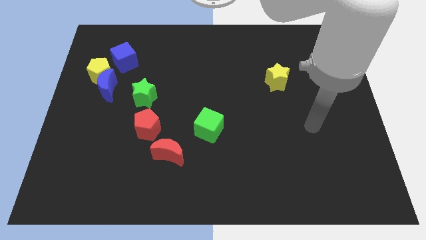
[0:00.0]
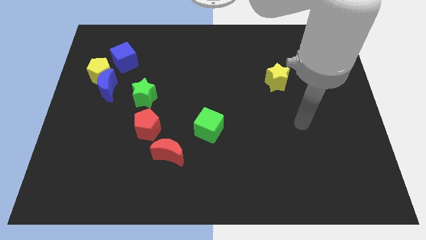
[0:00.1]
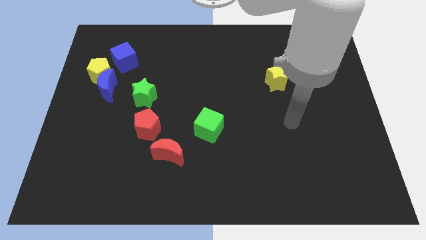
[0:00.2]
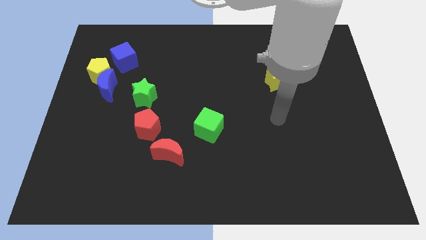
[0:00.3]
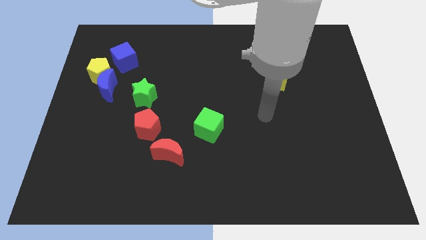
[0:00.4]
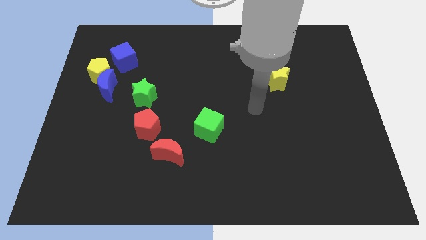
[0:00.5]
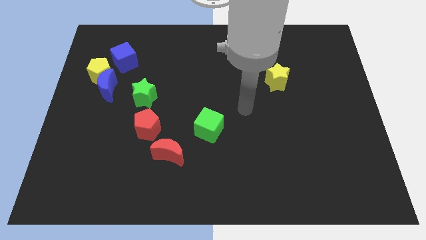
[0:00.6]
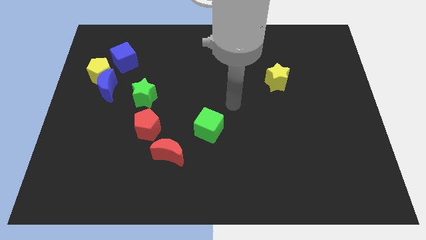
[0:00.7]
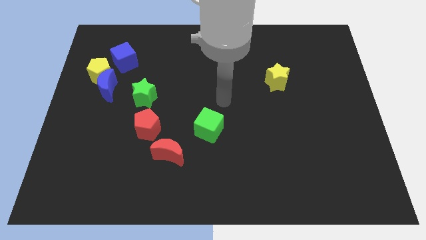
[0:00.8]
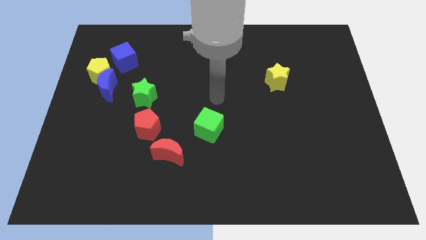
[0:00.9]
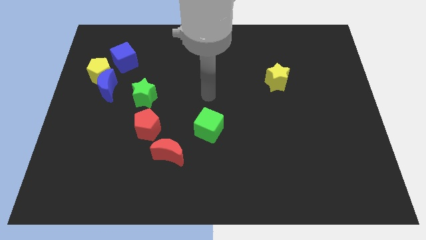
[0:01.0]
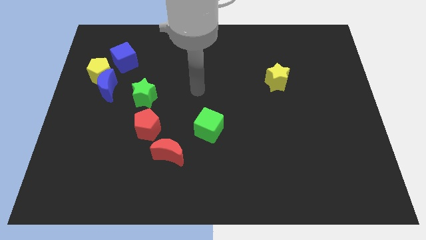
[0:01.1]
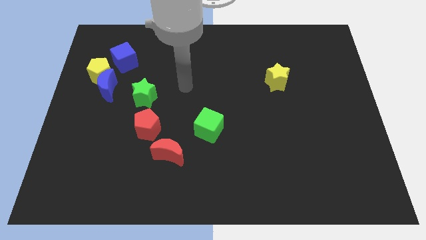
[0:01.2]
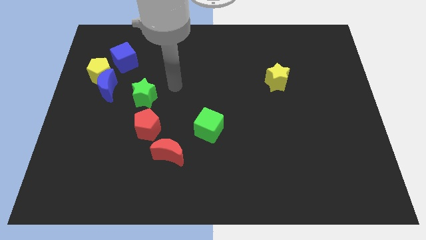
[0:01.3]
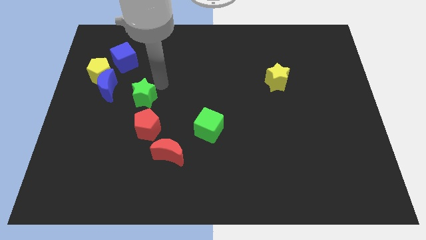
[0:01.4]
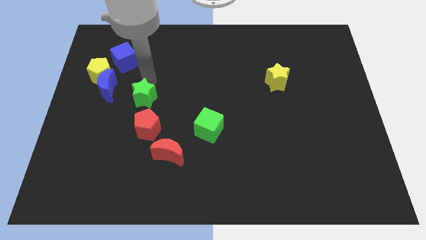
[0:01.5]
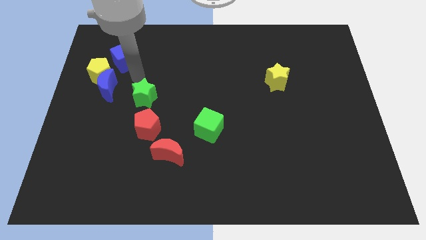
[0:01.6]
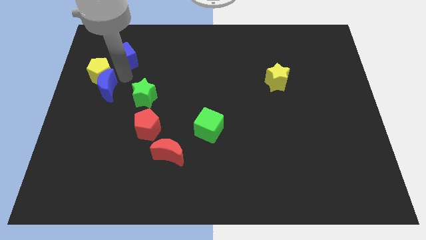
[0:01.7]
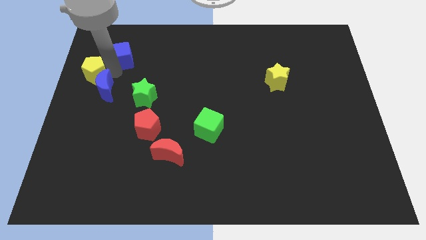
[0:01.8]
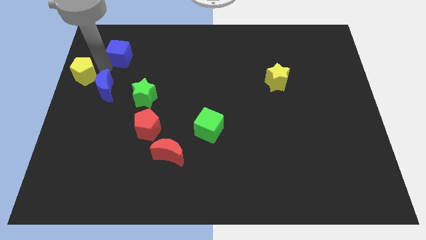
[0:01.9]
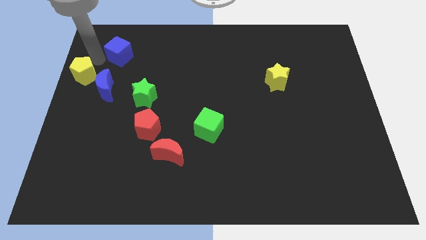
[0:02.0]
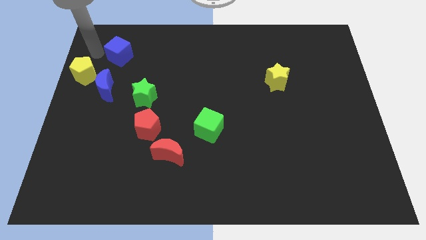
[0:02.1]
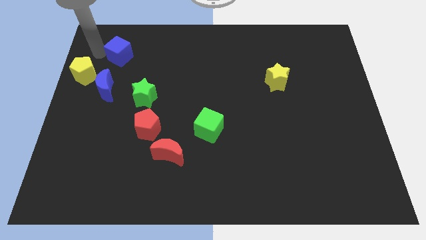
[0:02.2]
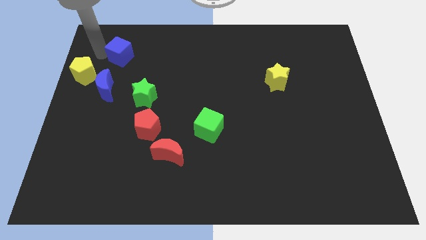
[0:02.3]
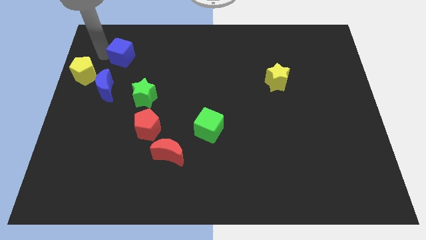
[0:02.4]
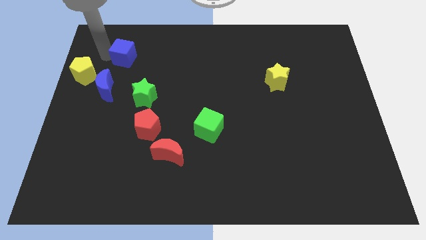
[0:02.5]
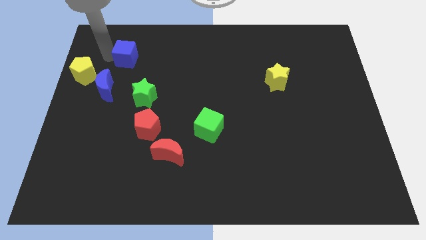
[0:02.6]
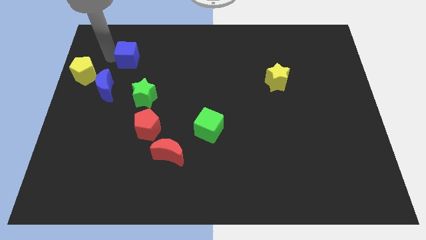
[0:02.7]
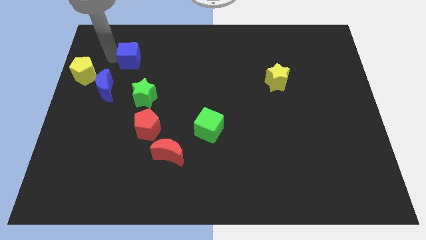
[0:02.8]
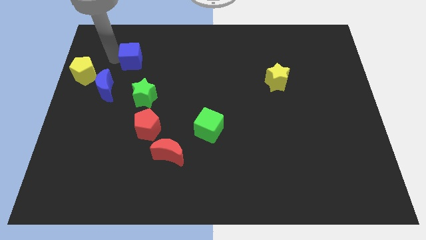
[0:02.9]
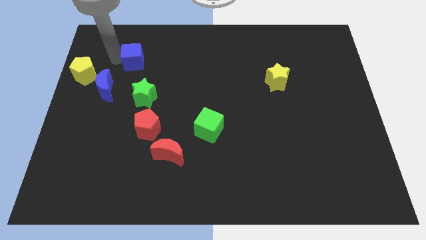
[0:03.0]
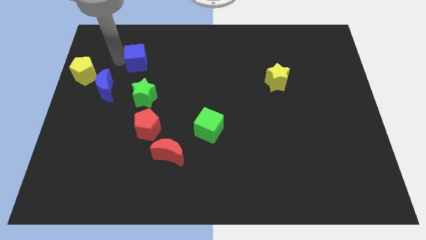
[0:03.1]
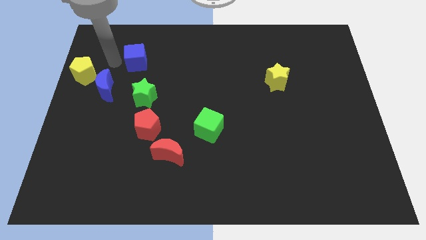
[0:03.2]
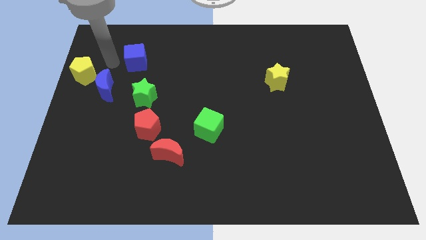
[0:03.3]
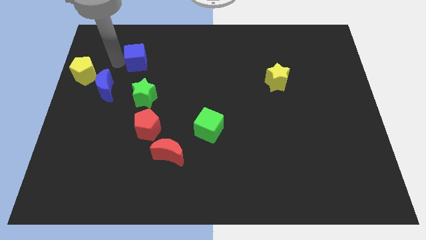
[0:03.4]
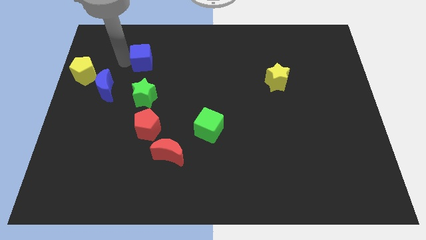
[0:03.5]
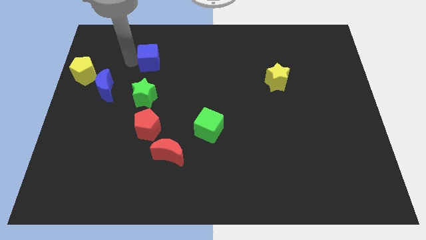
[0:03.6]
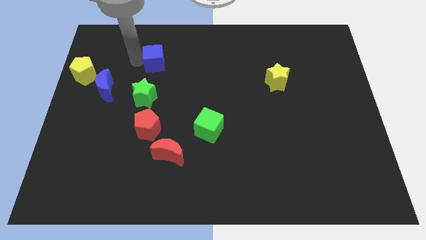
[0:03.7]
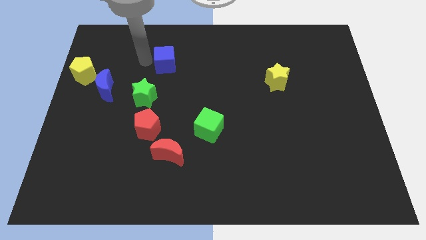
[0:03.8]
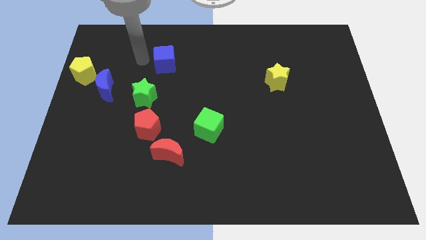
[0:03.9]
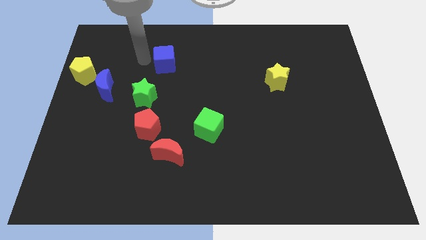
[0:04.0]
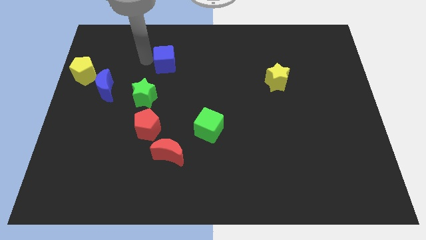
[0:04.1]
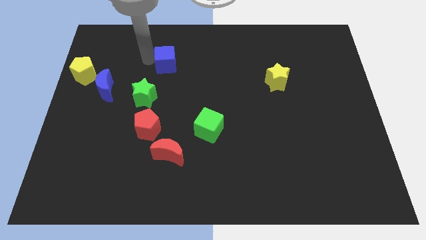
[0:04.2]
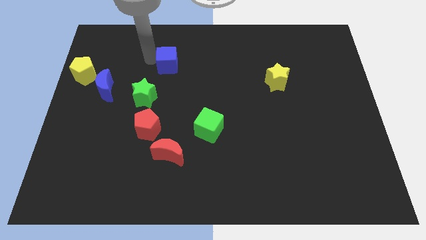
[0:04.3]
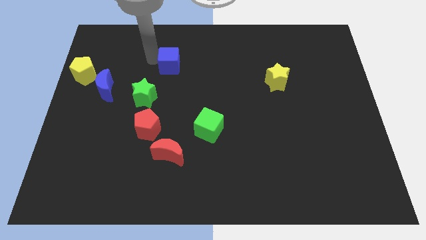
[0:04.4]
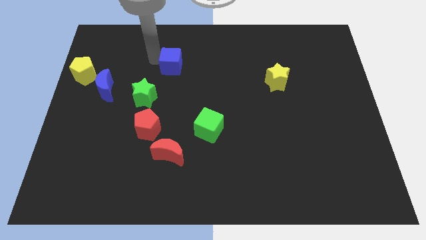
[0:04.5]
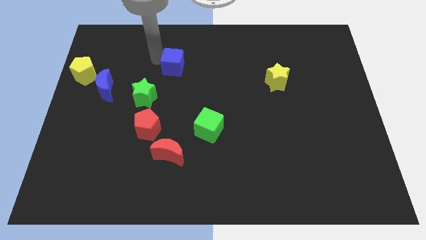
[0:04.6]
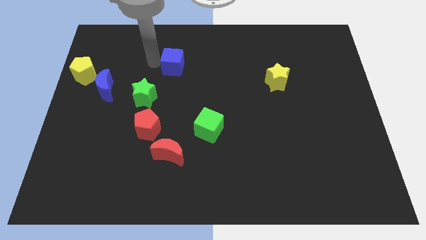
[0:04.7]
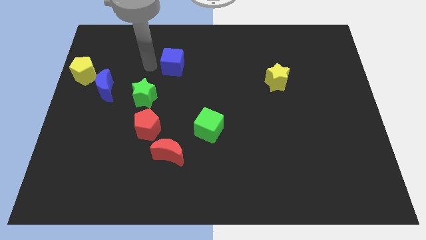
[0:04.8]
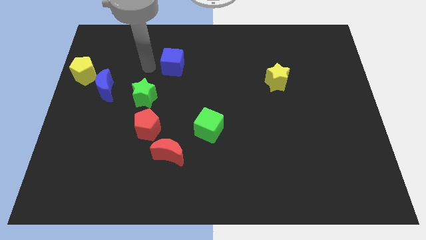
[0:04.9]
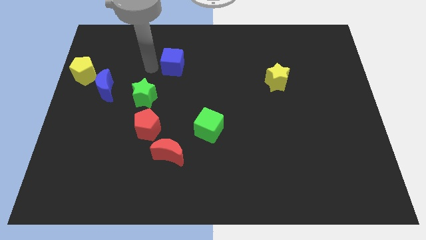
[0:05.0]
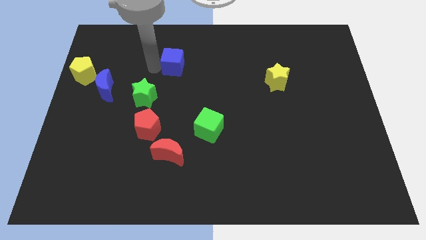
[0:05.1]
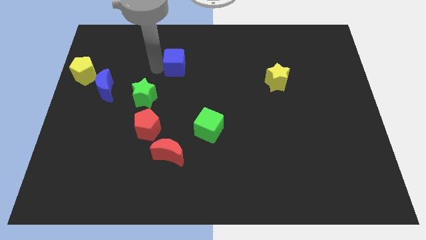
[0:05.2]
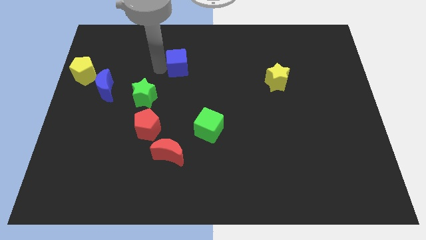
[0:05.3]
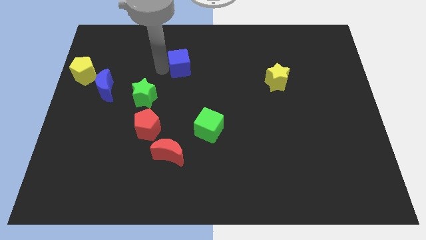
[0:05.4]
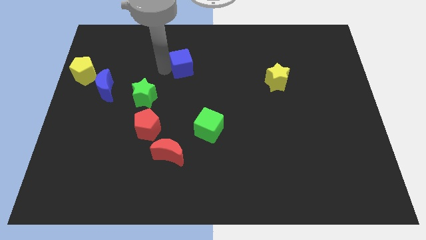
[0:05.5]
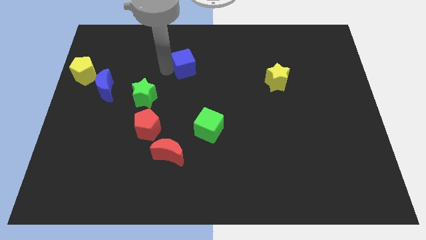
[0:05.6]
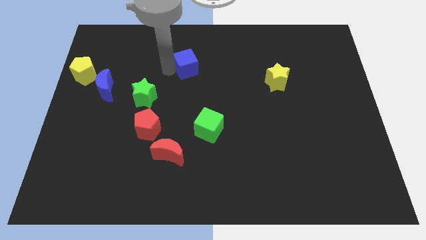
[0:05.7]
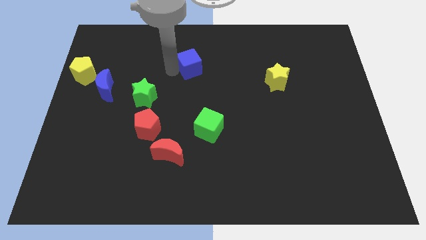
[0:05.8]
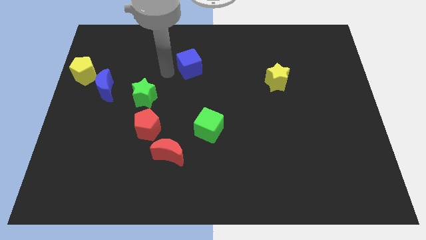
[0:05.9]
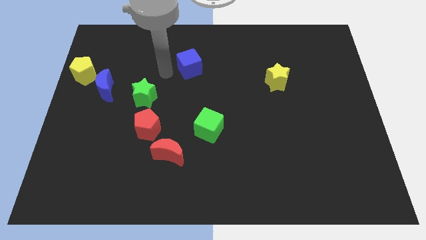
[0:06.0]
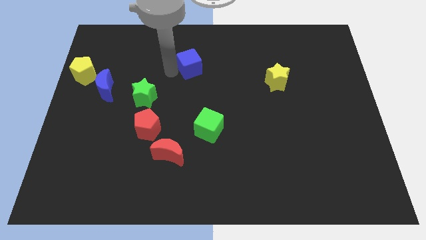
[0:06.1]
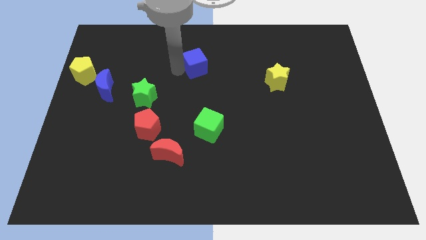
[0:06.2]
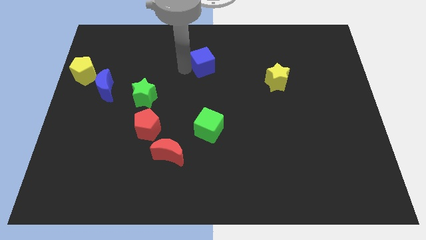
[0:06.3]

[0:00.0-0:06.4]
slide the blue cube to the right

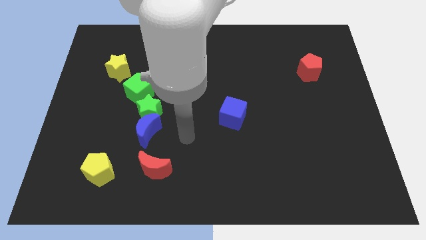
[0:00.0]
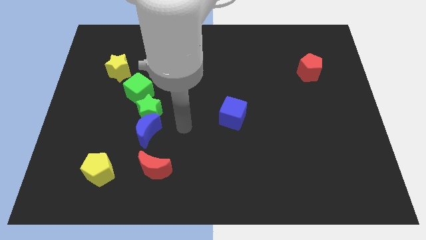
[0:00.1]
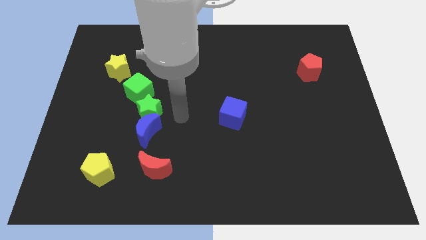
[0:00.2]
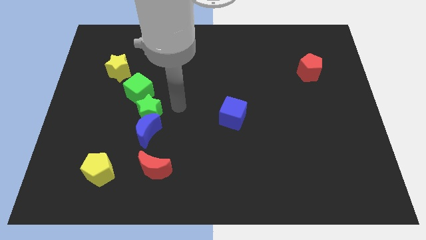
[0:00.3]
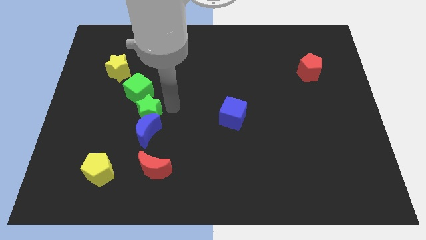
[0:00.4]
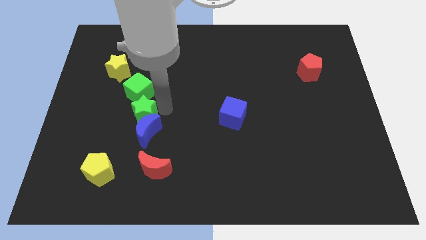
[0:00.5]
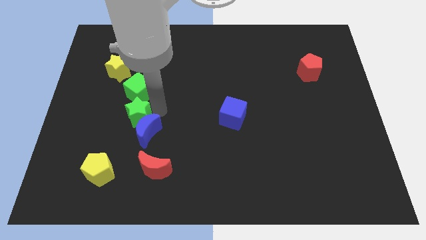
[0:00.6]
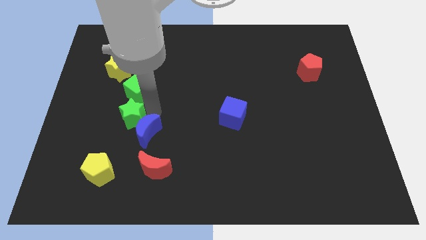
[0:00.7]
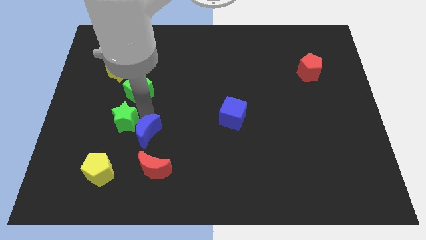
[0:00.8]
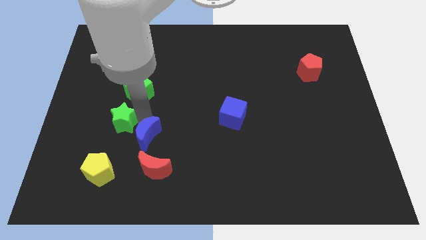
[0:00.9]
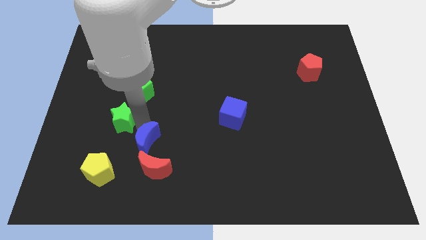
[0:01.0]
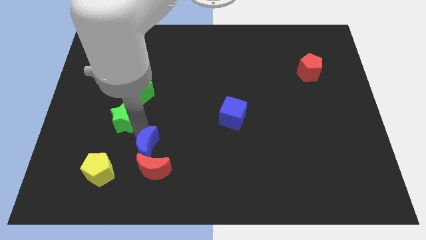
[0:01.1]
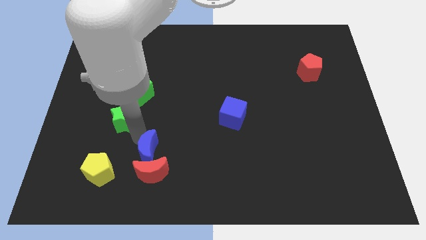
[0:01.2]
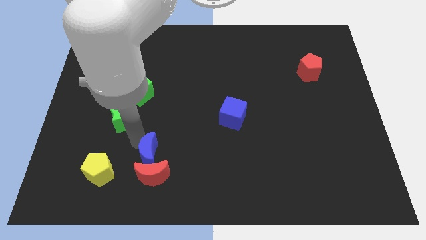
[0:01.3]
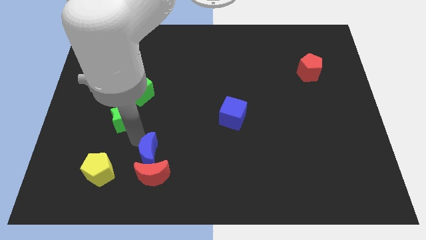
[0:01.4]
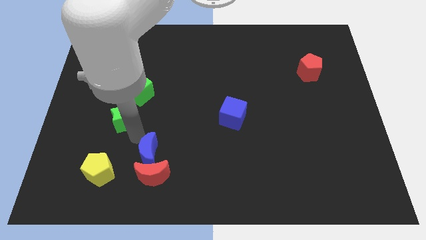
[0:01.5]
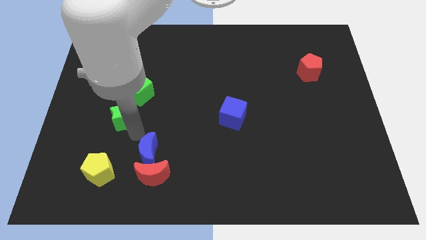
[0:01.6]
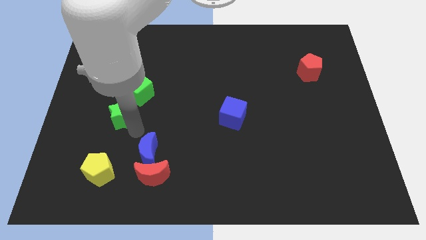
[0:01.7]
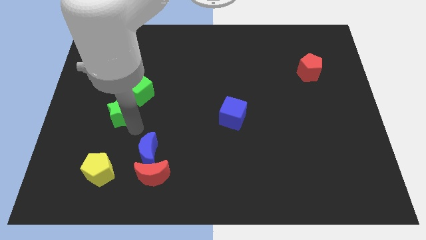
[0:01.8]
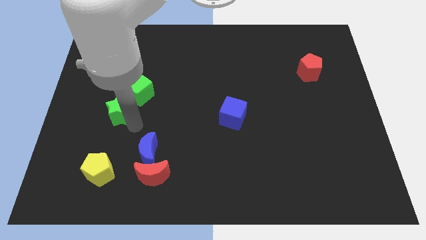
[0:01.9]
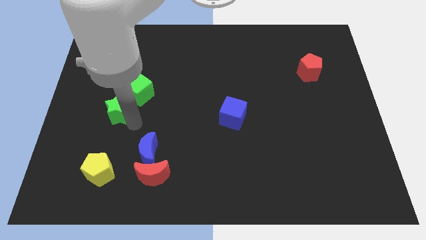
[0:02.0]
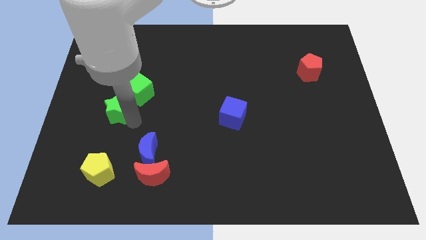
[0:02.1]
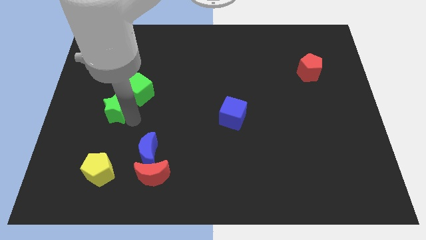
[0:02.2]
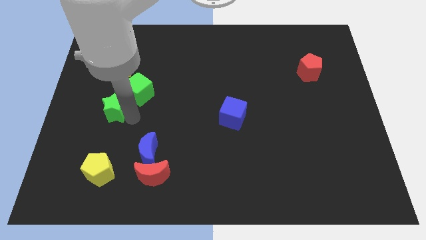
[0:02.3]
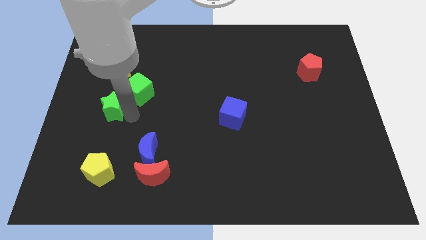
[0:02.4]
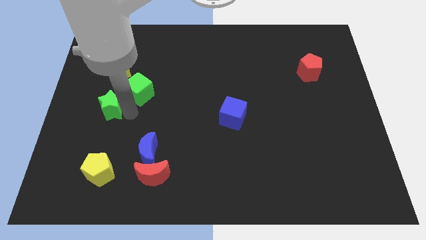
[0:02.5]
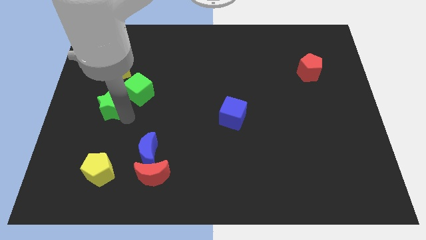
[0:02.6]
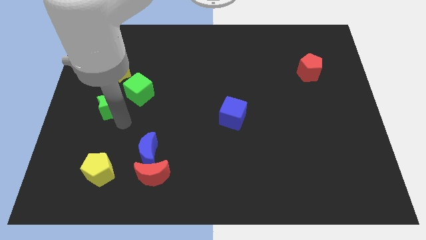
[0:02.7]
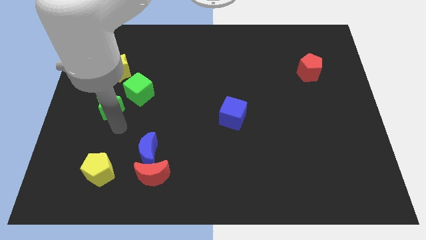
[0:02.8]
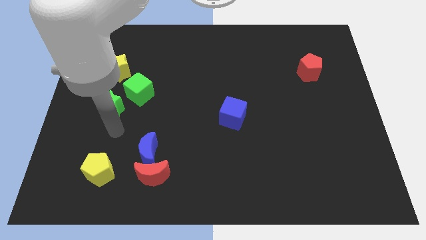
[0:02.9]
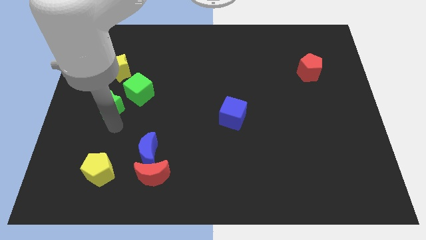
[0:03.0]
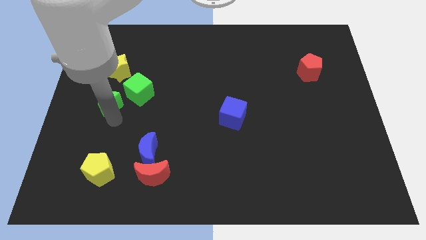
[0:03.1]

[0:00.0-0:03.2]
slide the green star upwards and to the left diagonally a bit
